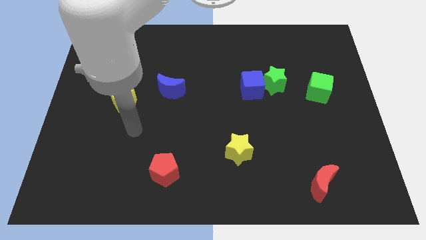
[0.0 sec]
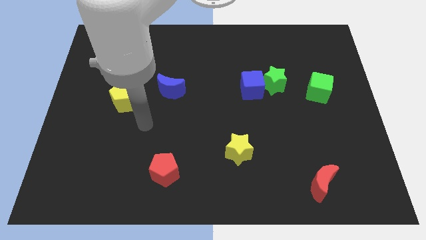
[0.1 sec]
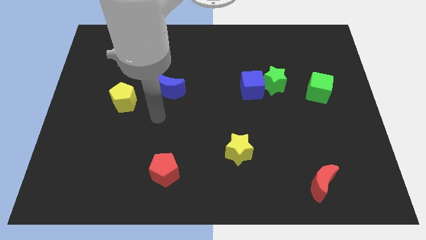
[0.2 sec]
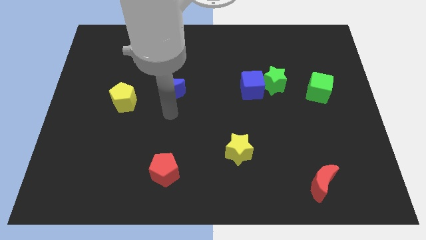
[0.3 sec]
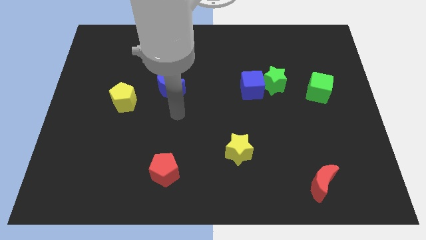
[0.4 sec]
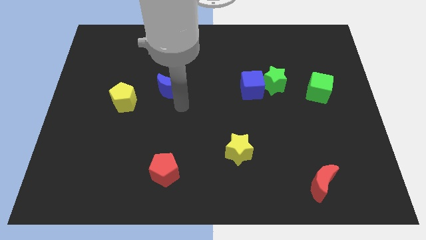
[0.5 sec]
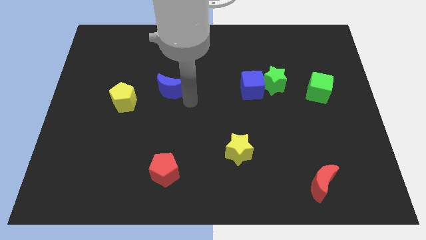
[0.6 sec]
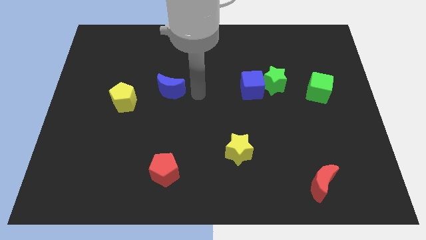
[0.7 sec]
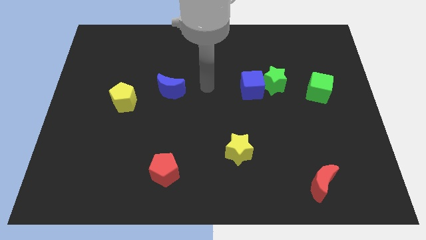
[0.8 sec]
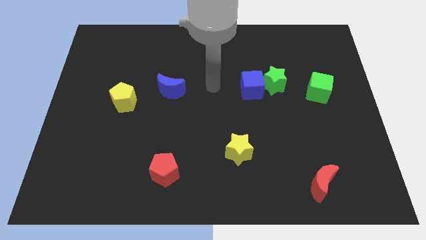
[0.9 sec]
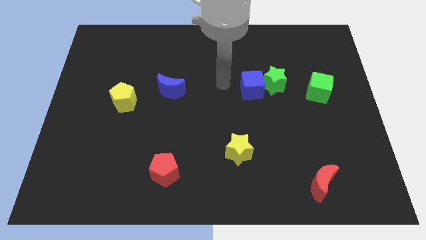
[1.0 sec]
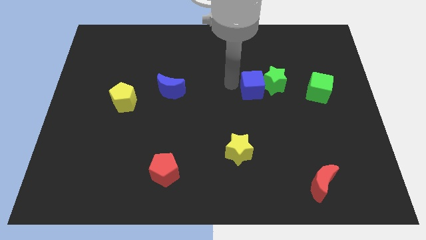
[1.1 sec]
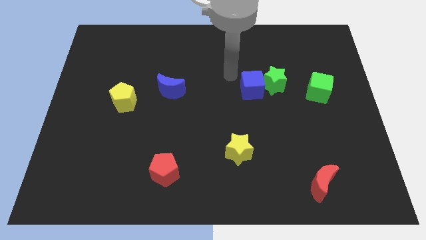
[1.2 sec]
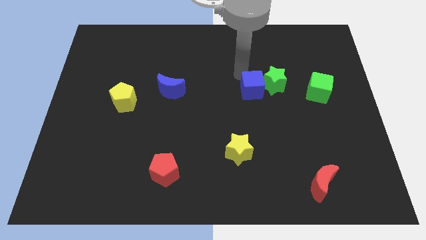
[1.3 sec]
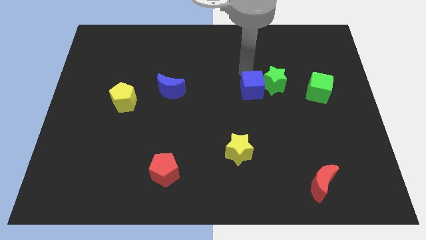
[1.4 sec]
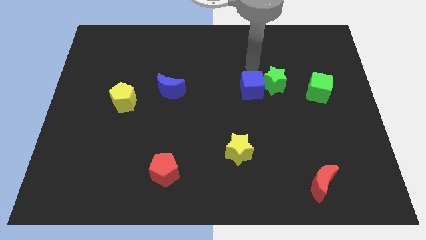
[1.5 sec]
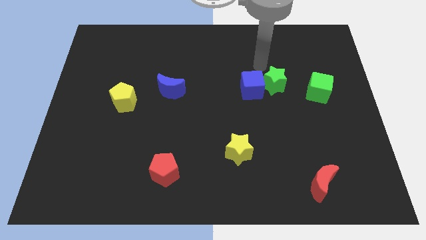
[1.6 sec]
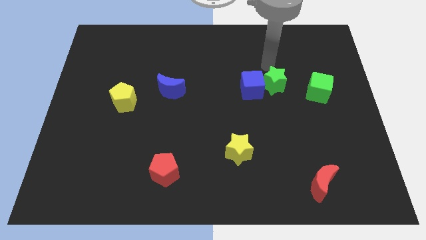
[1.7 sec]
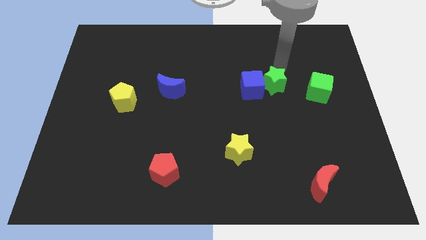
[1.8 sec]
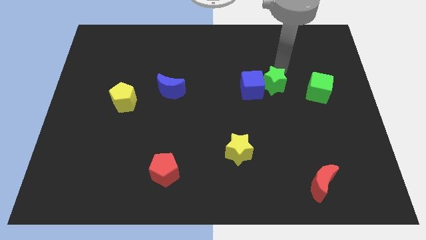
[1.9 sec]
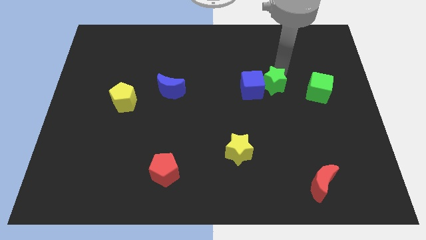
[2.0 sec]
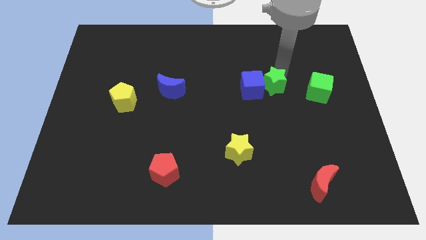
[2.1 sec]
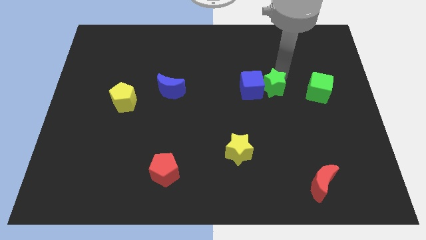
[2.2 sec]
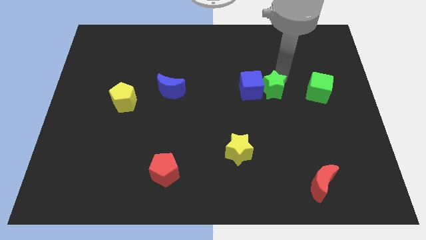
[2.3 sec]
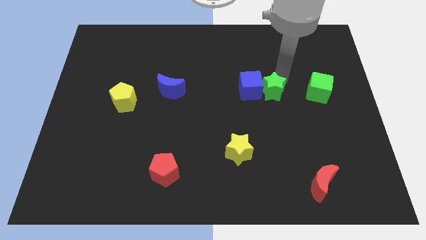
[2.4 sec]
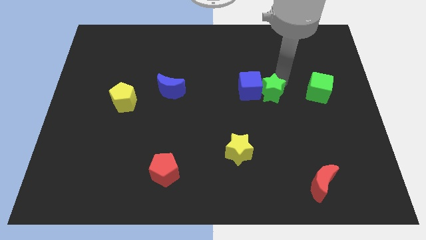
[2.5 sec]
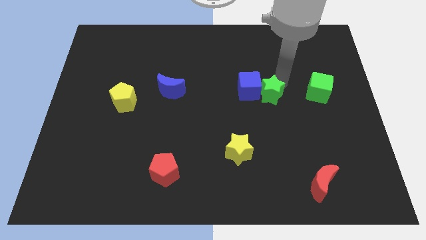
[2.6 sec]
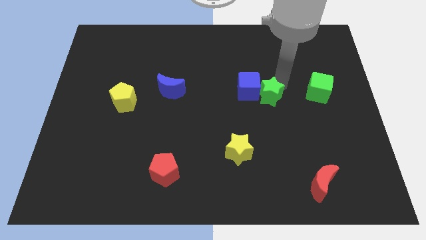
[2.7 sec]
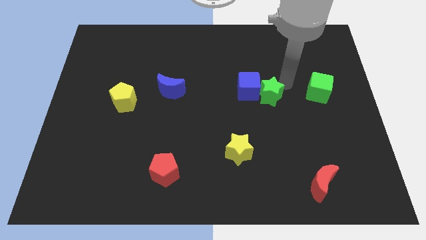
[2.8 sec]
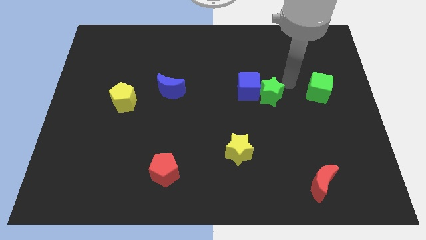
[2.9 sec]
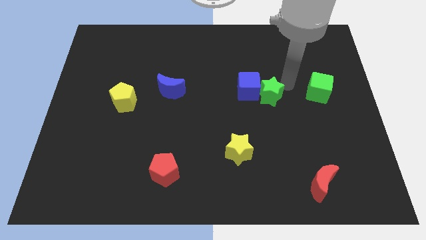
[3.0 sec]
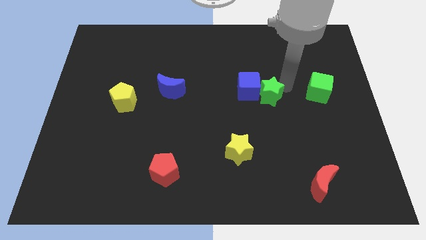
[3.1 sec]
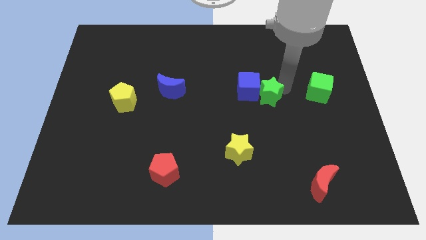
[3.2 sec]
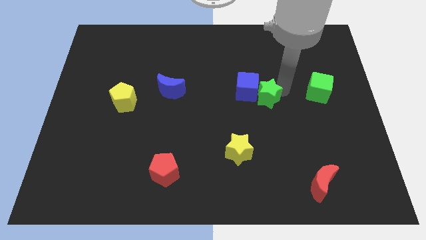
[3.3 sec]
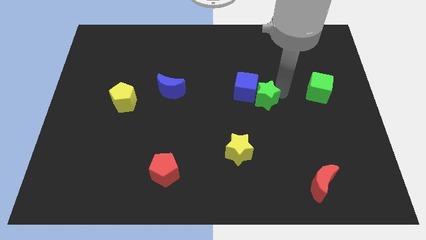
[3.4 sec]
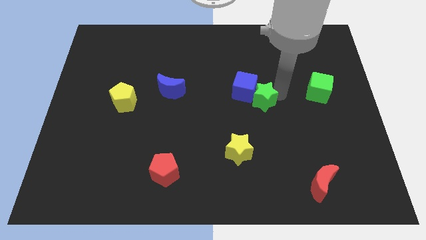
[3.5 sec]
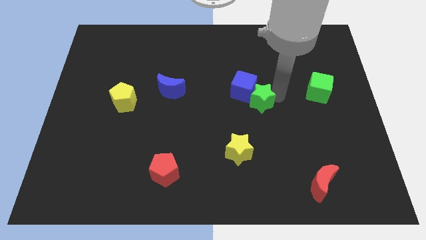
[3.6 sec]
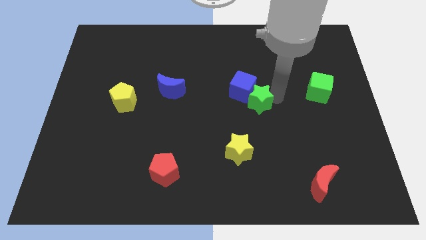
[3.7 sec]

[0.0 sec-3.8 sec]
push the green star downwards and left diagonally somewhat

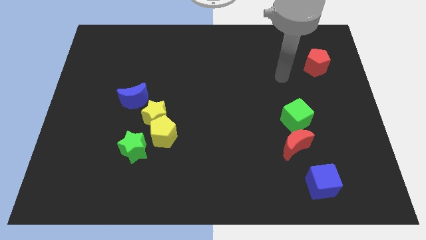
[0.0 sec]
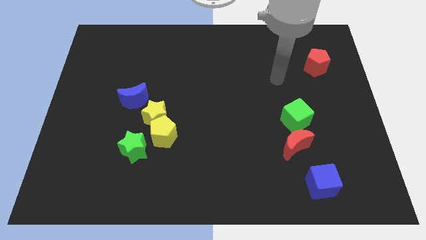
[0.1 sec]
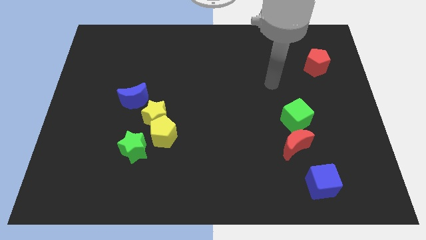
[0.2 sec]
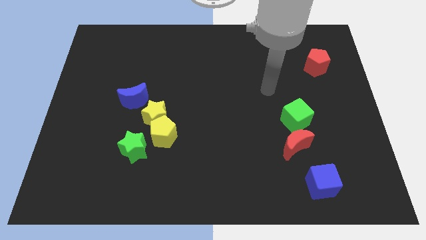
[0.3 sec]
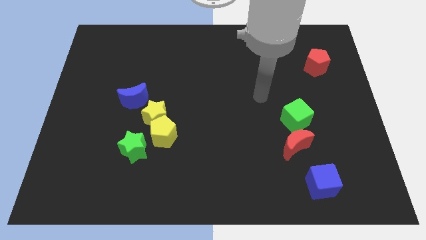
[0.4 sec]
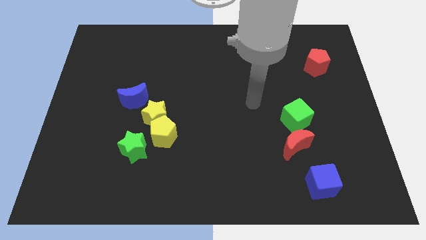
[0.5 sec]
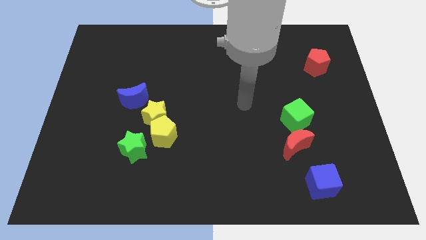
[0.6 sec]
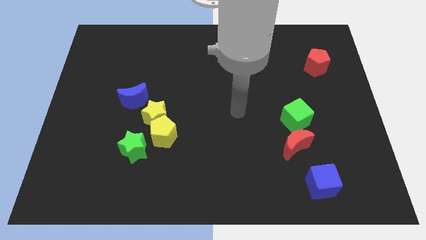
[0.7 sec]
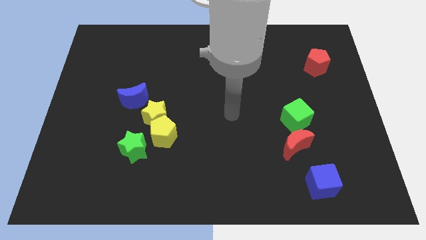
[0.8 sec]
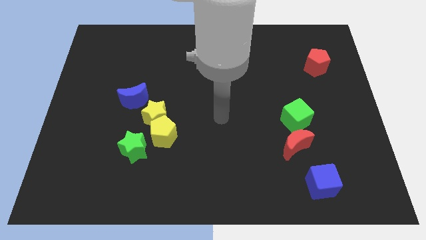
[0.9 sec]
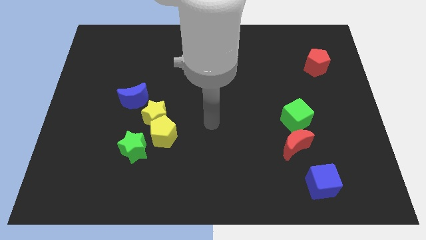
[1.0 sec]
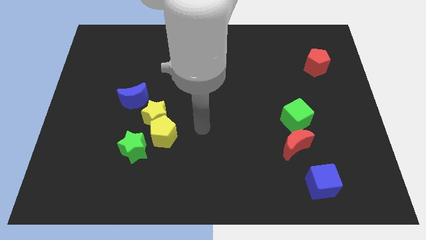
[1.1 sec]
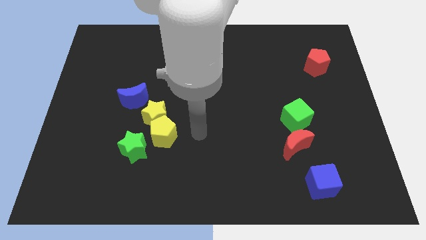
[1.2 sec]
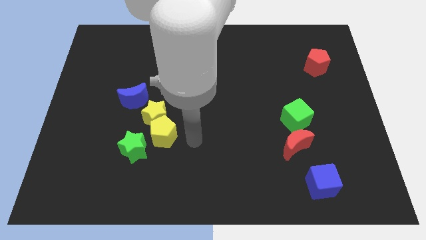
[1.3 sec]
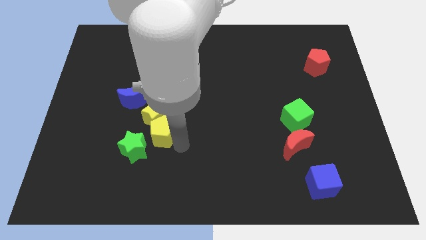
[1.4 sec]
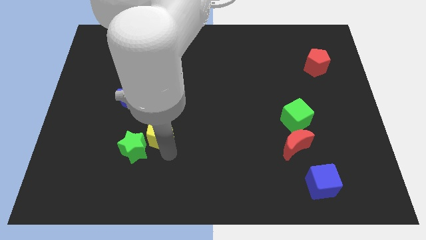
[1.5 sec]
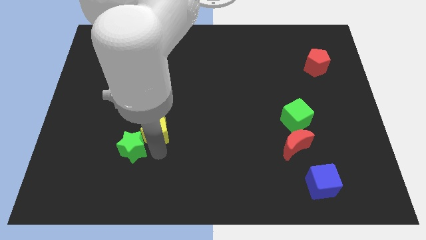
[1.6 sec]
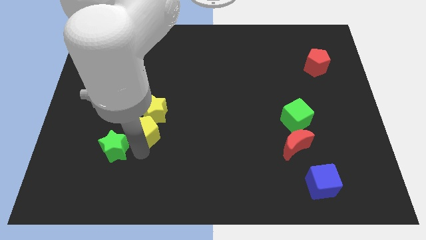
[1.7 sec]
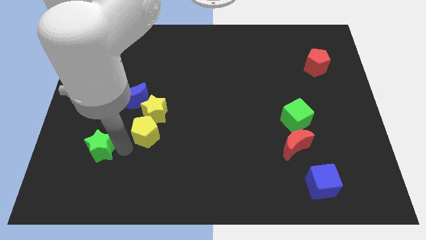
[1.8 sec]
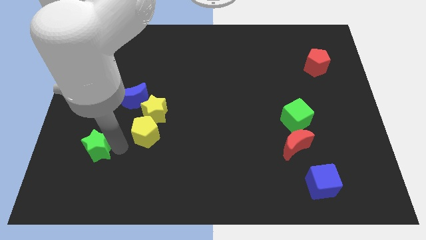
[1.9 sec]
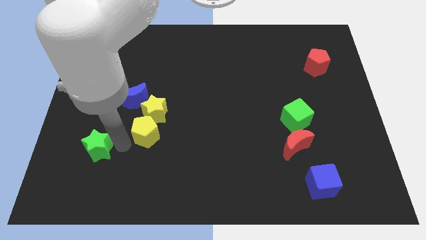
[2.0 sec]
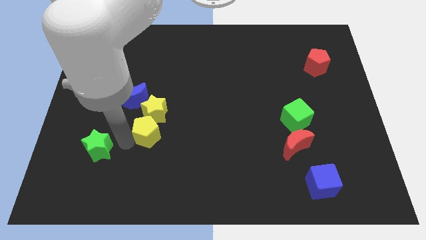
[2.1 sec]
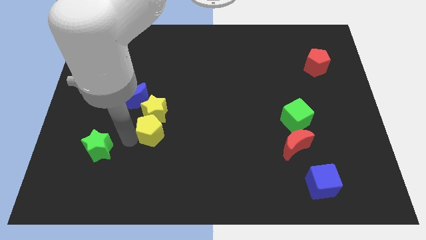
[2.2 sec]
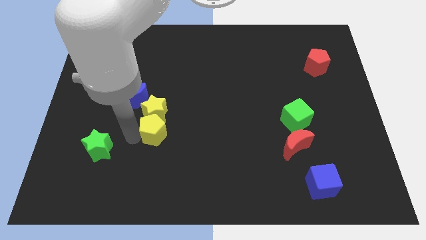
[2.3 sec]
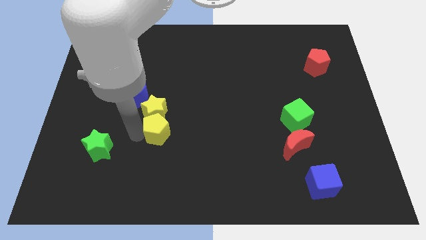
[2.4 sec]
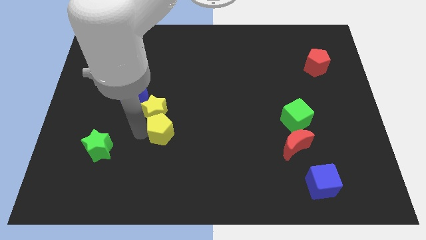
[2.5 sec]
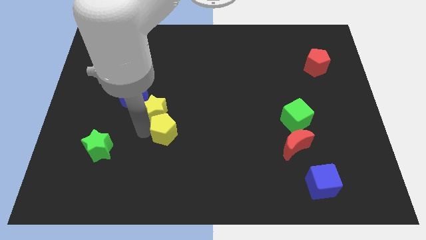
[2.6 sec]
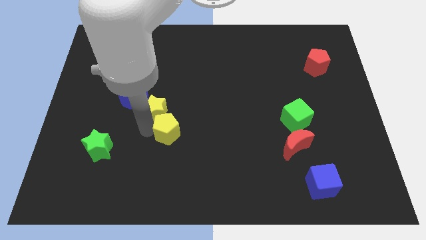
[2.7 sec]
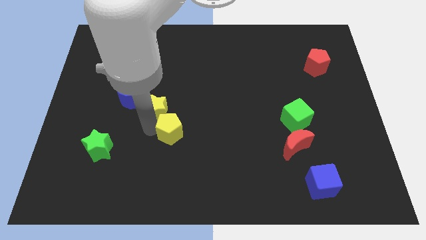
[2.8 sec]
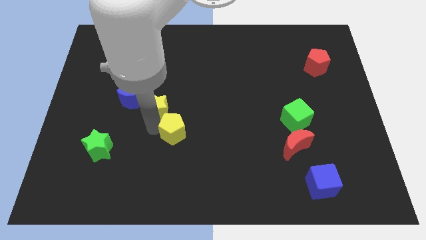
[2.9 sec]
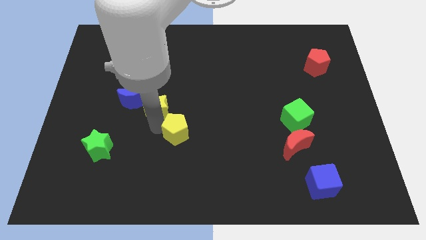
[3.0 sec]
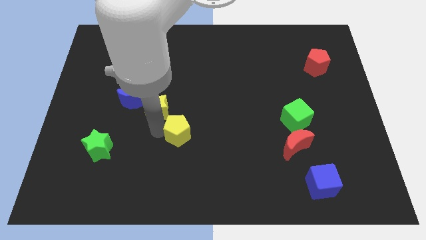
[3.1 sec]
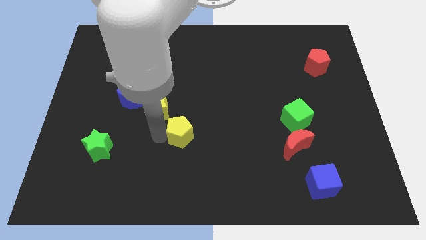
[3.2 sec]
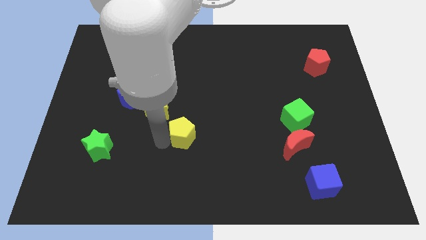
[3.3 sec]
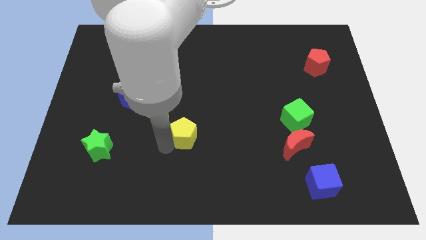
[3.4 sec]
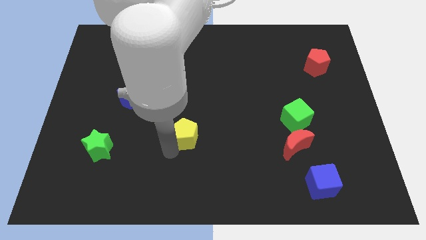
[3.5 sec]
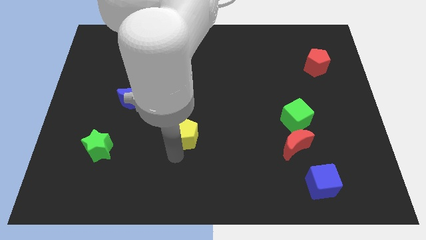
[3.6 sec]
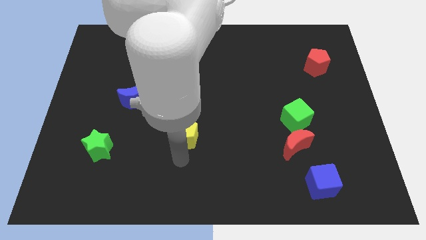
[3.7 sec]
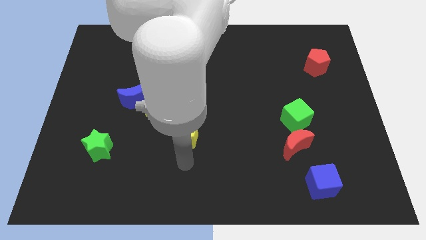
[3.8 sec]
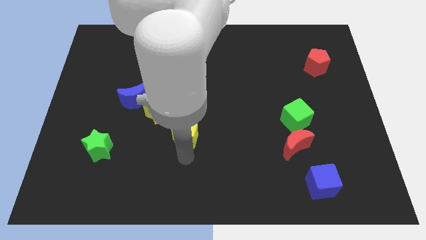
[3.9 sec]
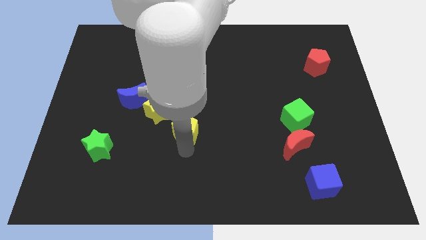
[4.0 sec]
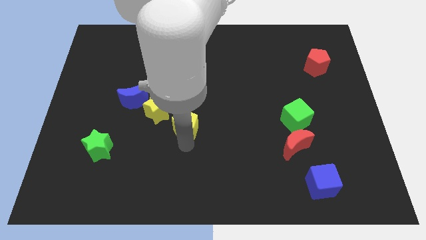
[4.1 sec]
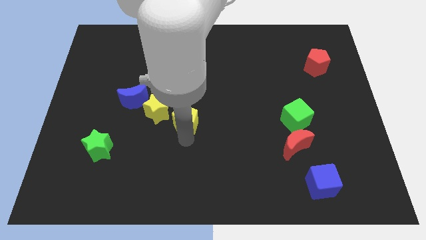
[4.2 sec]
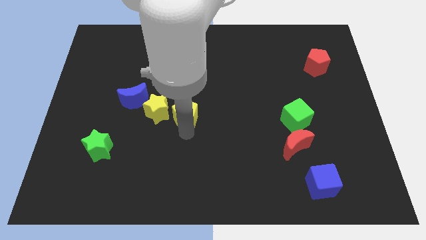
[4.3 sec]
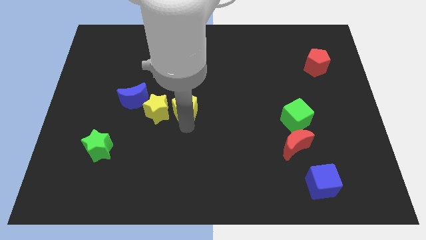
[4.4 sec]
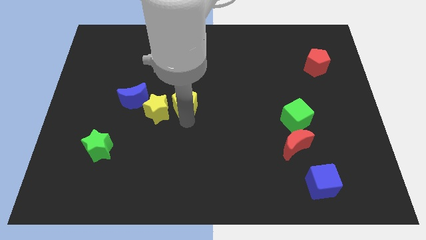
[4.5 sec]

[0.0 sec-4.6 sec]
slightly push the yellow pentagon upwards
